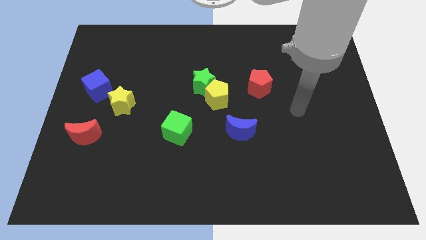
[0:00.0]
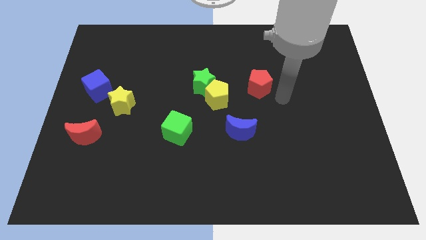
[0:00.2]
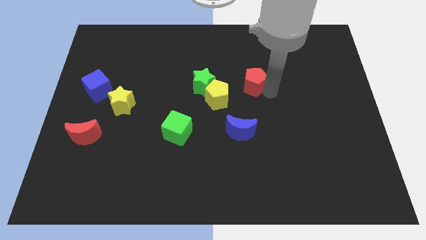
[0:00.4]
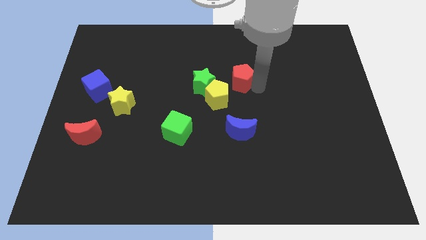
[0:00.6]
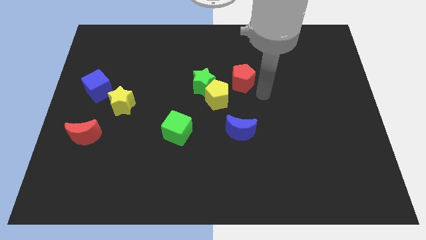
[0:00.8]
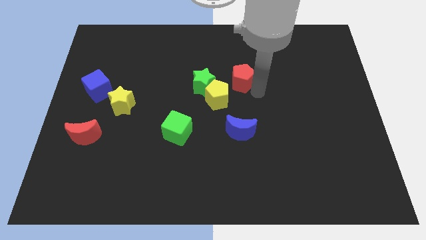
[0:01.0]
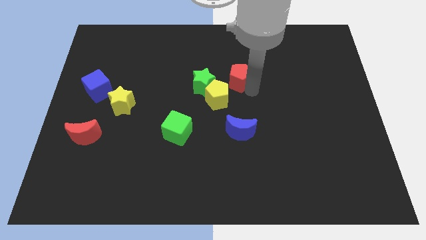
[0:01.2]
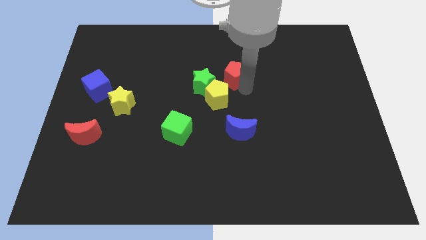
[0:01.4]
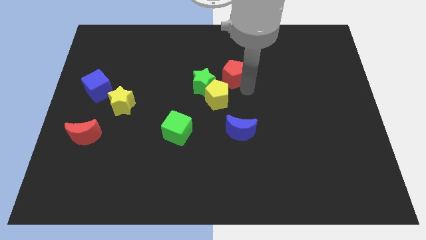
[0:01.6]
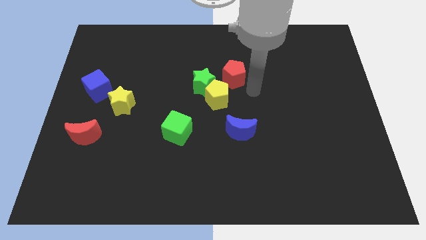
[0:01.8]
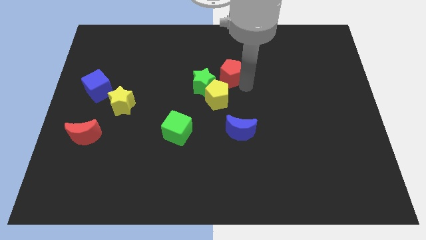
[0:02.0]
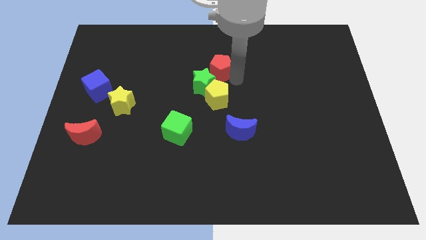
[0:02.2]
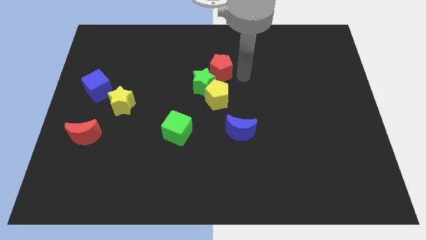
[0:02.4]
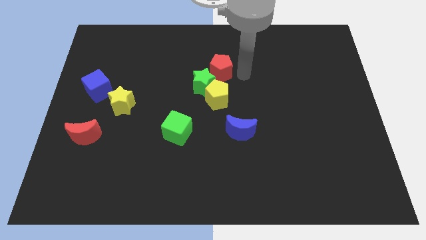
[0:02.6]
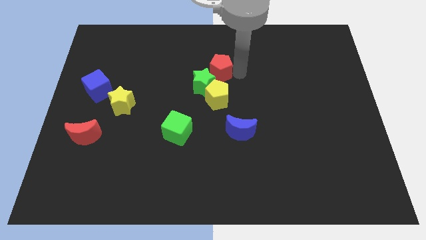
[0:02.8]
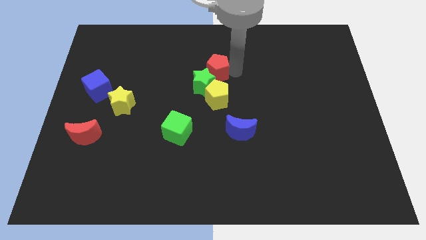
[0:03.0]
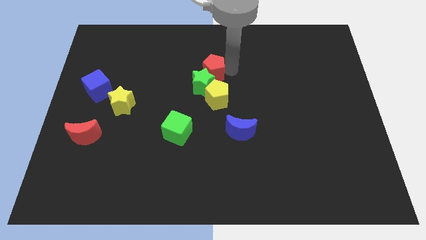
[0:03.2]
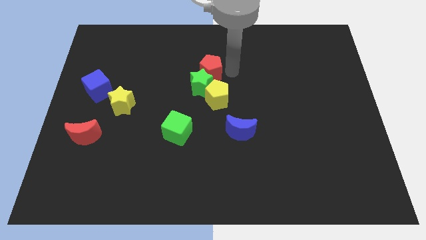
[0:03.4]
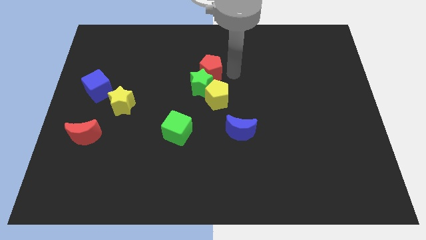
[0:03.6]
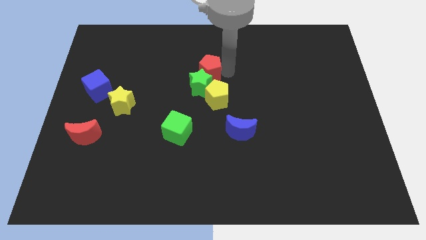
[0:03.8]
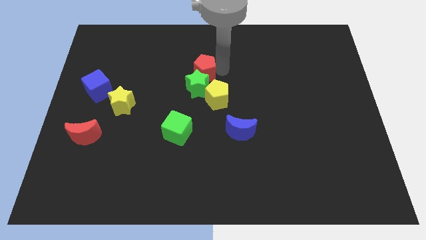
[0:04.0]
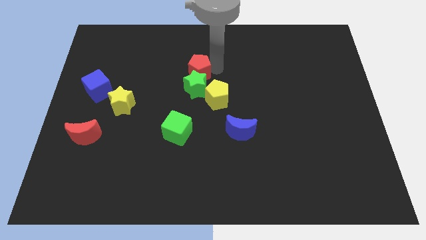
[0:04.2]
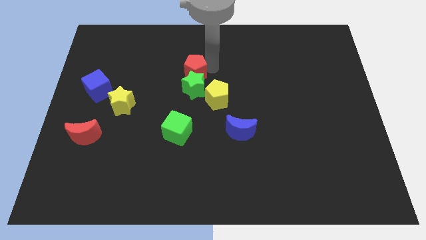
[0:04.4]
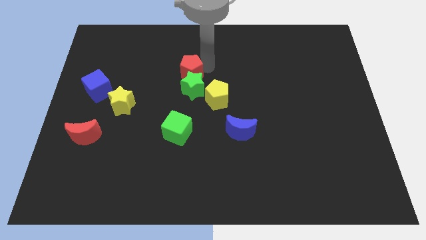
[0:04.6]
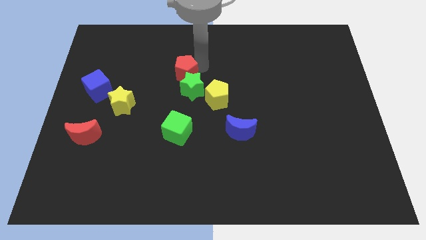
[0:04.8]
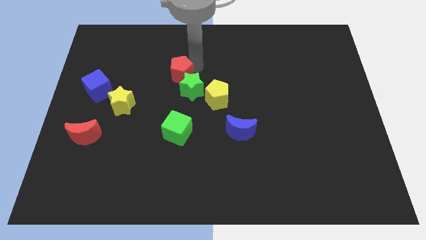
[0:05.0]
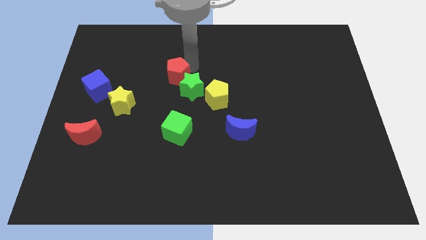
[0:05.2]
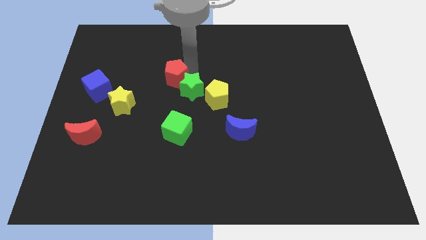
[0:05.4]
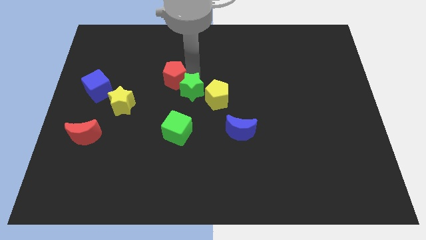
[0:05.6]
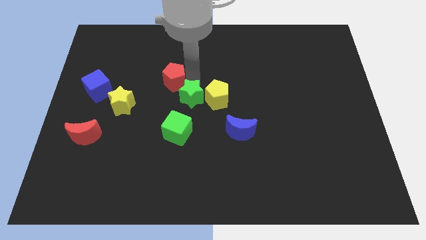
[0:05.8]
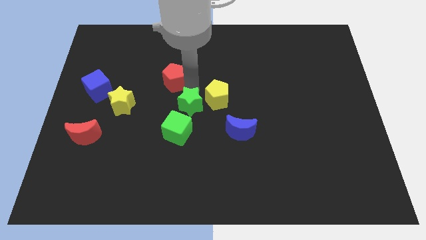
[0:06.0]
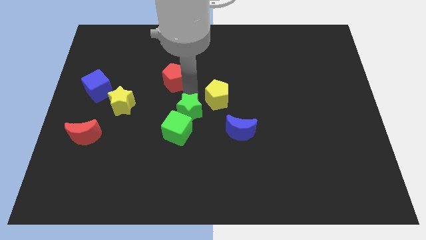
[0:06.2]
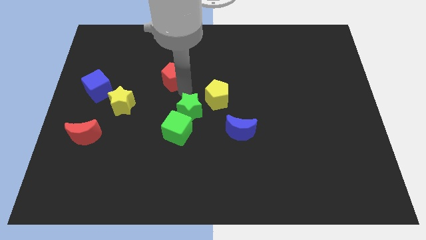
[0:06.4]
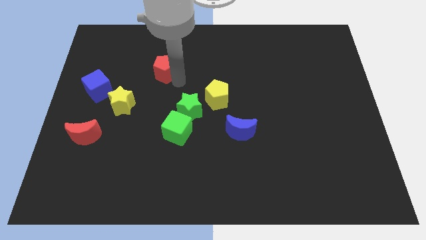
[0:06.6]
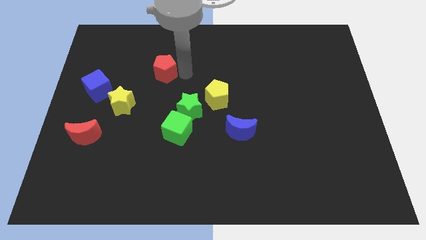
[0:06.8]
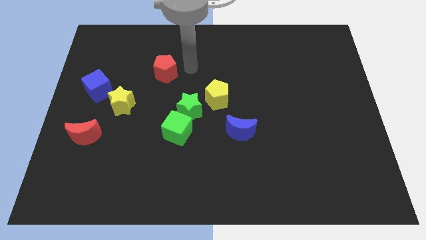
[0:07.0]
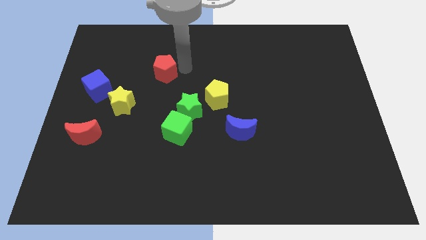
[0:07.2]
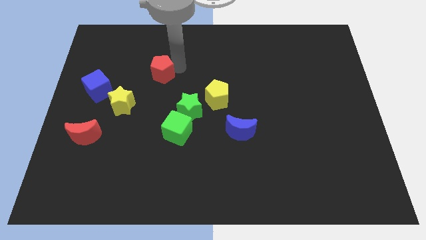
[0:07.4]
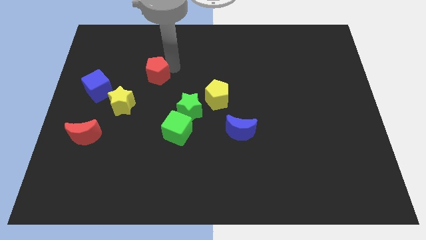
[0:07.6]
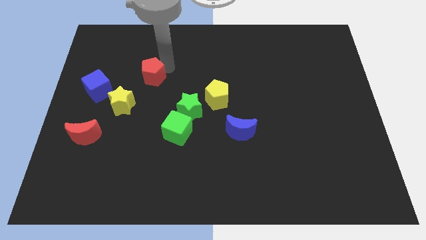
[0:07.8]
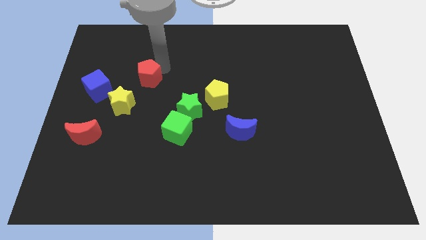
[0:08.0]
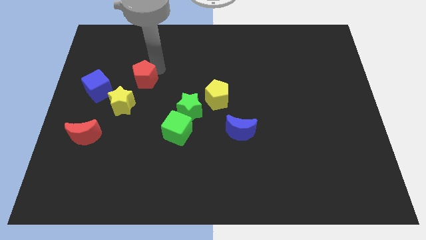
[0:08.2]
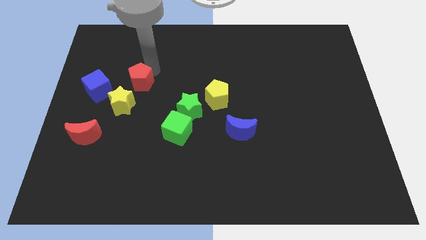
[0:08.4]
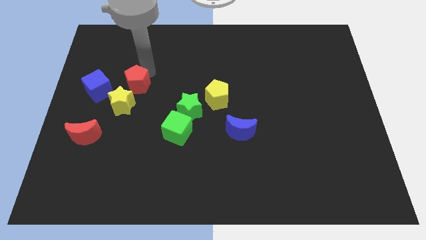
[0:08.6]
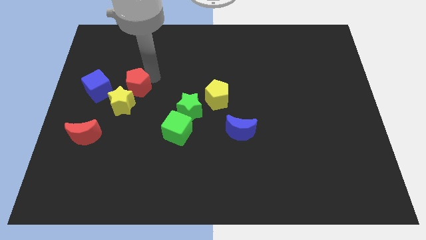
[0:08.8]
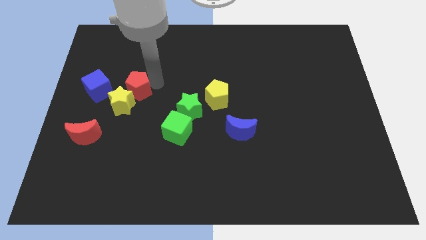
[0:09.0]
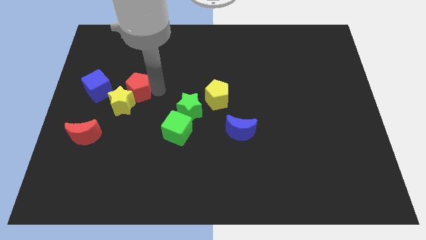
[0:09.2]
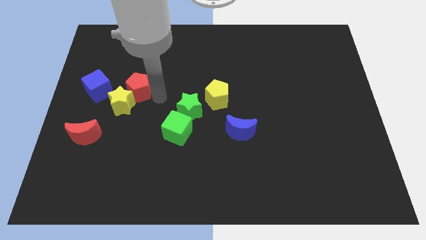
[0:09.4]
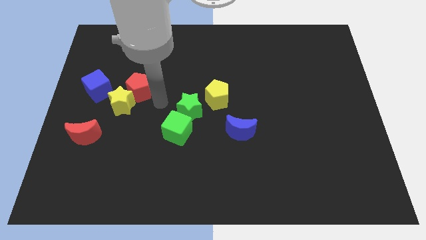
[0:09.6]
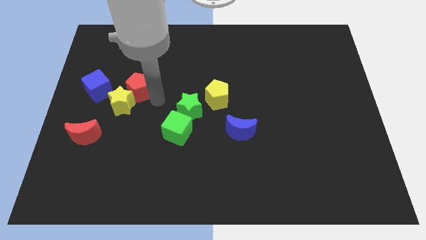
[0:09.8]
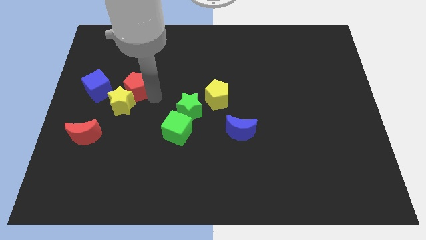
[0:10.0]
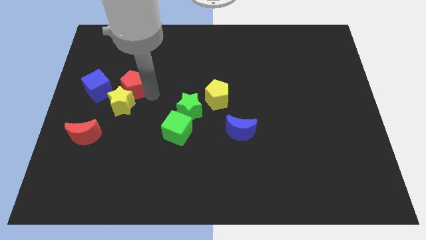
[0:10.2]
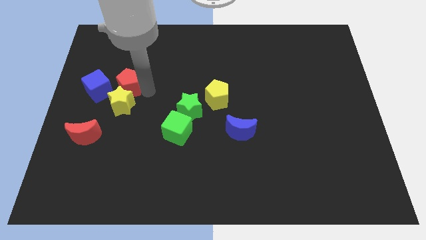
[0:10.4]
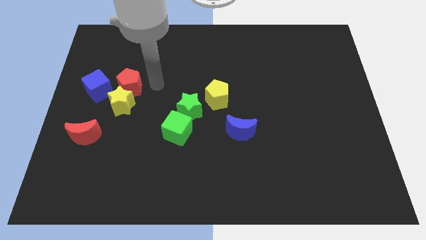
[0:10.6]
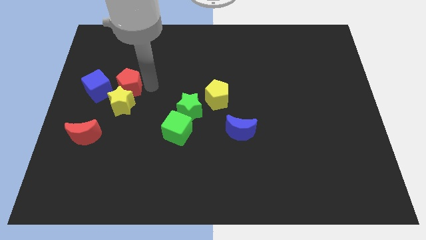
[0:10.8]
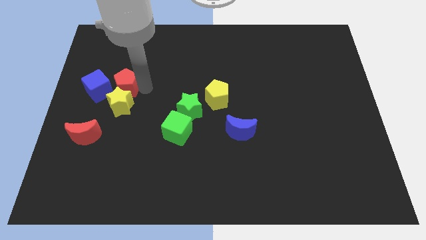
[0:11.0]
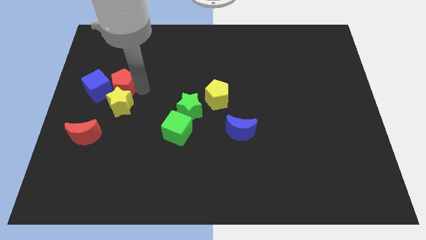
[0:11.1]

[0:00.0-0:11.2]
move the red pentagon next to the blue cube
